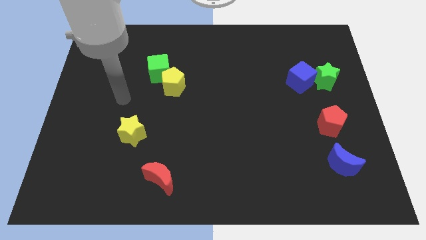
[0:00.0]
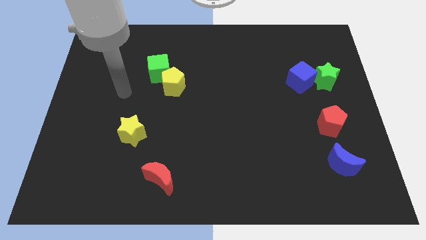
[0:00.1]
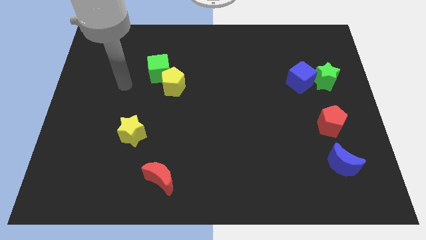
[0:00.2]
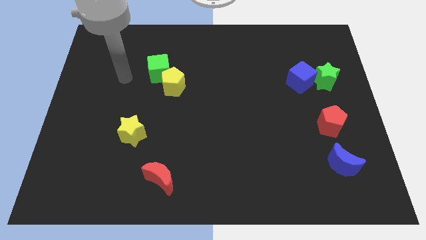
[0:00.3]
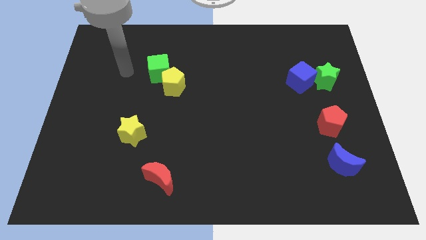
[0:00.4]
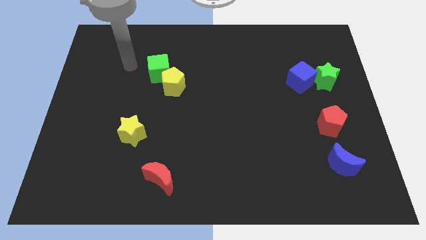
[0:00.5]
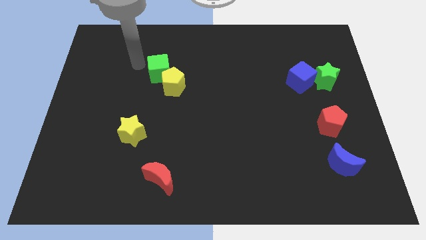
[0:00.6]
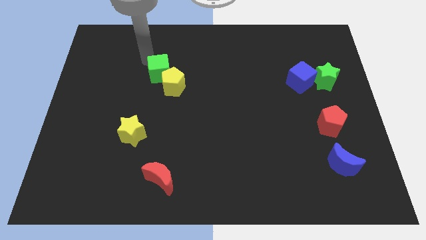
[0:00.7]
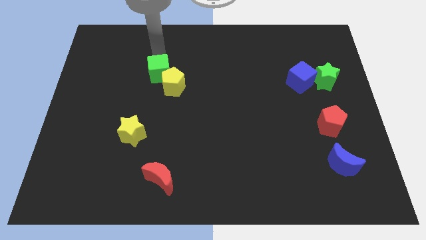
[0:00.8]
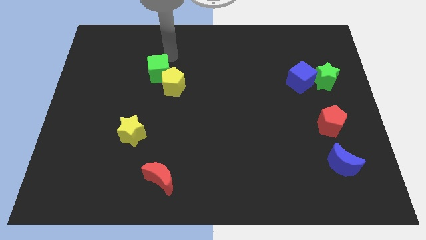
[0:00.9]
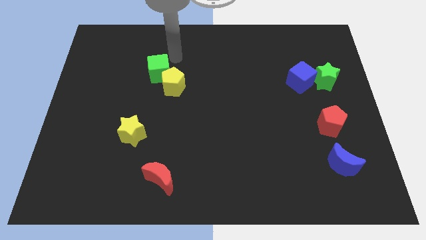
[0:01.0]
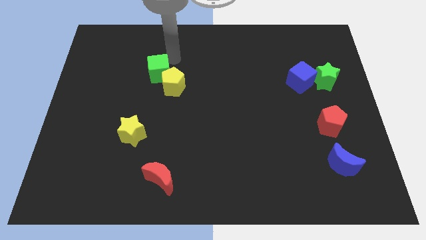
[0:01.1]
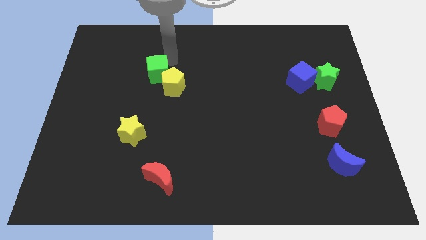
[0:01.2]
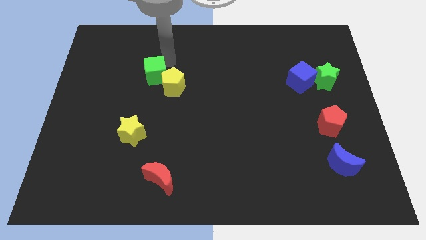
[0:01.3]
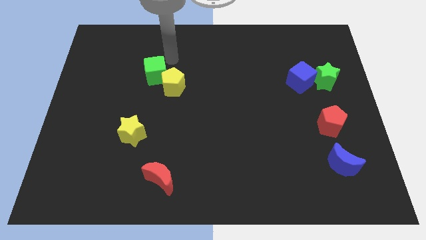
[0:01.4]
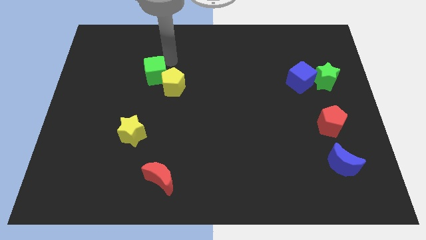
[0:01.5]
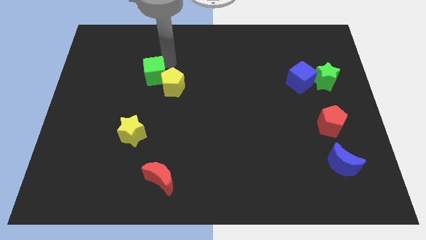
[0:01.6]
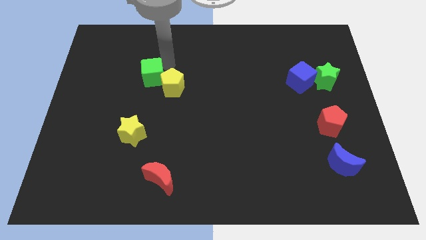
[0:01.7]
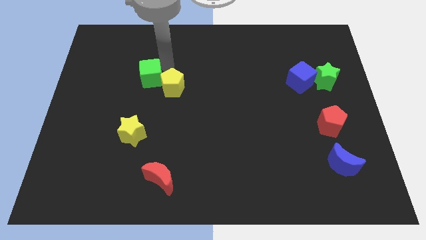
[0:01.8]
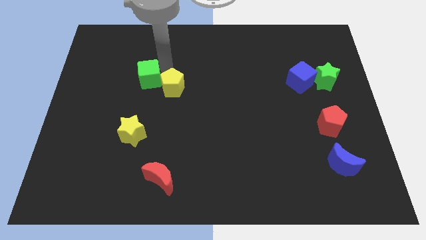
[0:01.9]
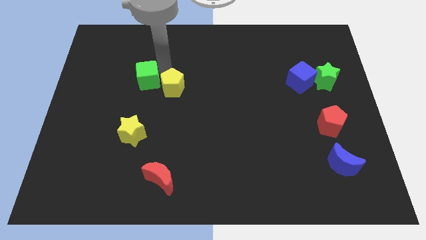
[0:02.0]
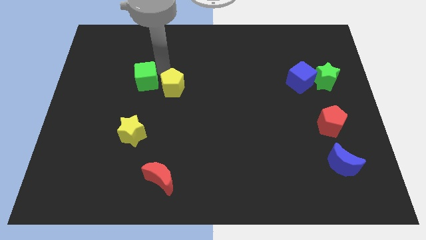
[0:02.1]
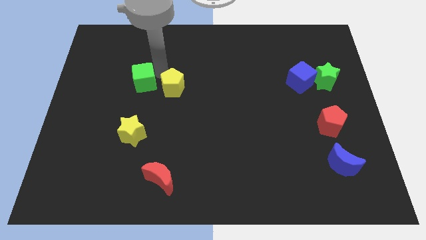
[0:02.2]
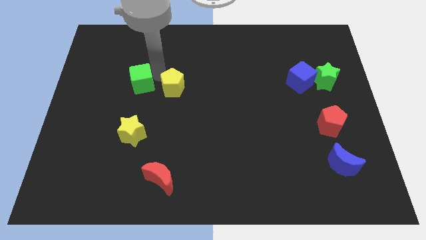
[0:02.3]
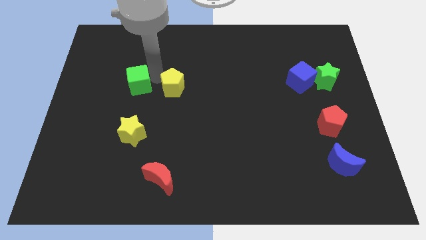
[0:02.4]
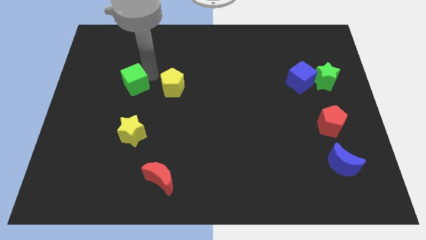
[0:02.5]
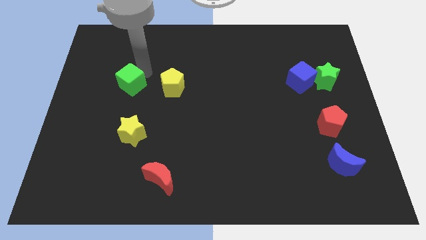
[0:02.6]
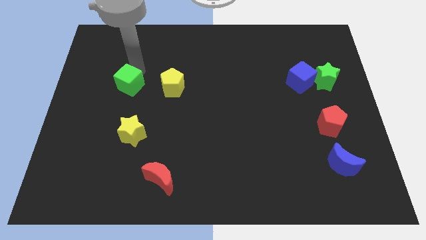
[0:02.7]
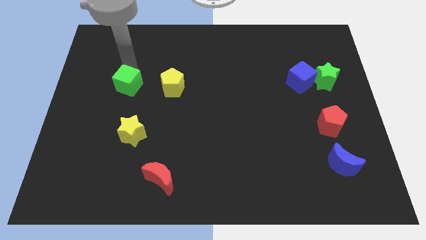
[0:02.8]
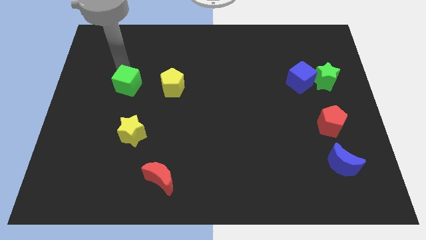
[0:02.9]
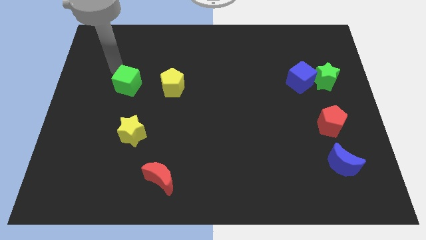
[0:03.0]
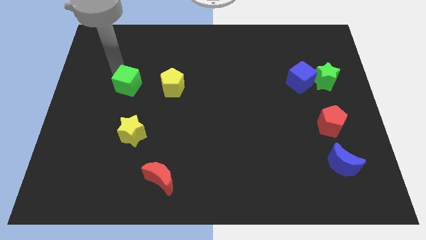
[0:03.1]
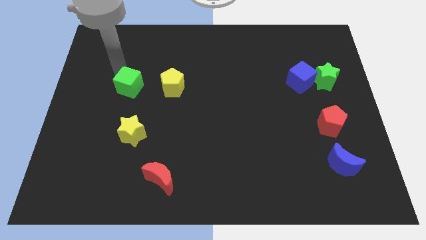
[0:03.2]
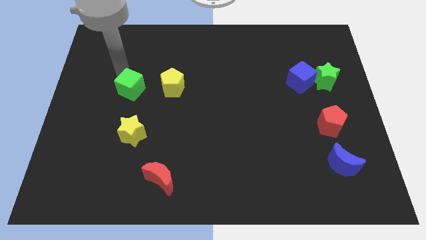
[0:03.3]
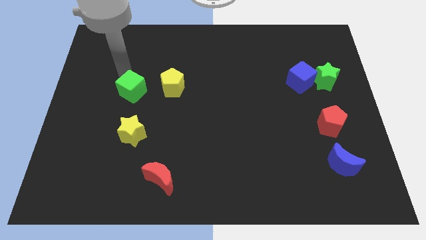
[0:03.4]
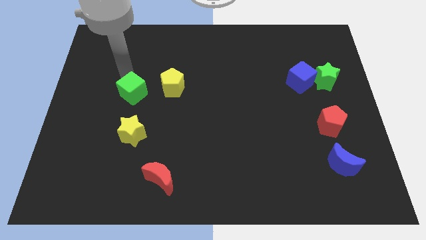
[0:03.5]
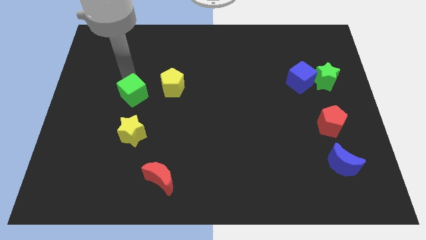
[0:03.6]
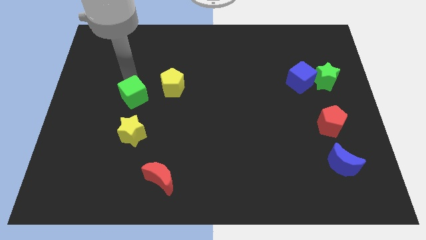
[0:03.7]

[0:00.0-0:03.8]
slightly slide the green cube downwards

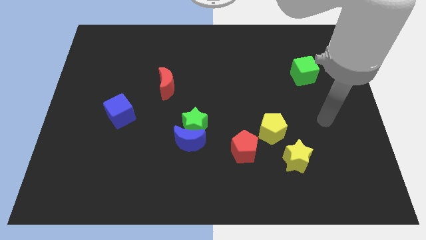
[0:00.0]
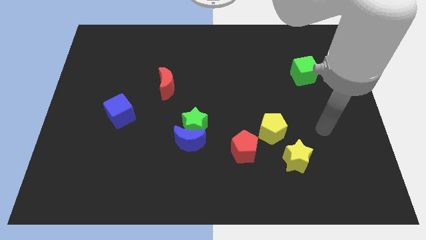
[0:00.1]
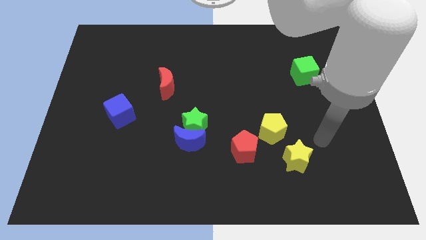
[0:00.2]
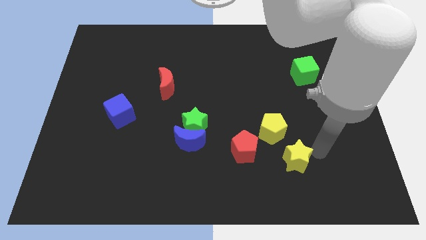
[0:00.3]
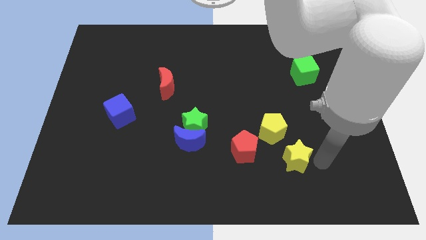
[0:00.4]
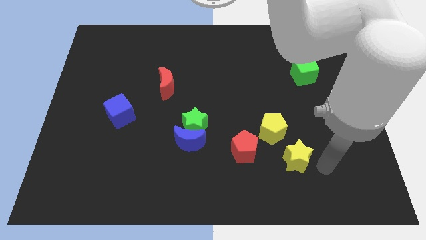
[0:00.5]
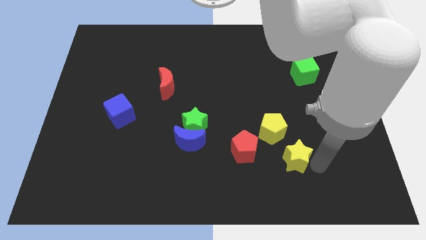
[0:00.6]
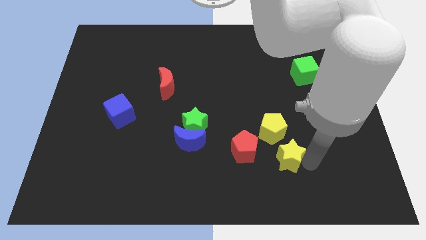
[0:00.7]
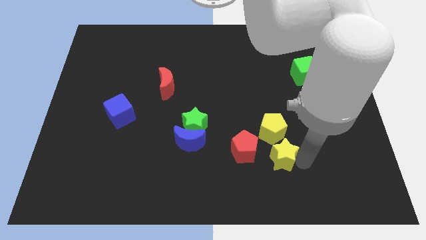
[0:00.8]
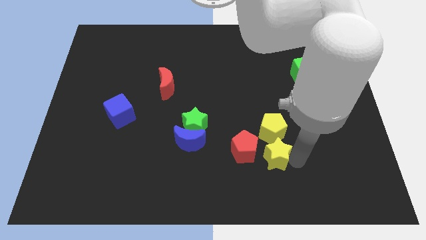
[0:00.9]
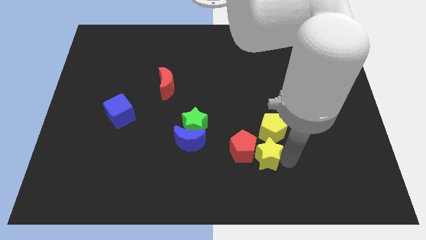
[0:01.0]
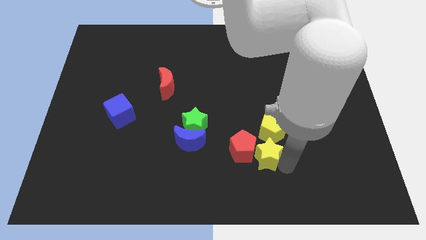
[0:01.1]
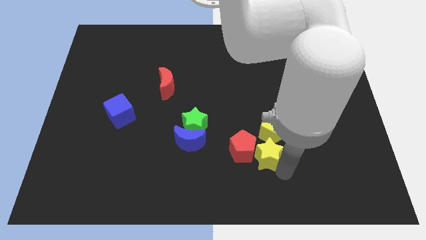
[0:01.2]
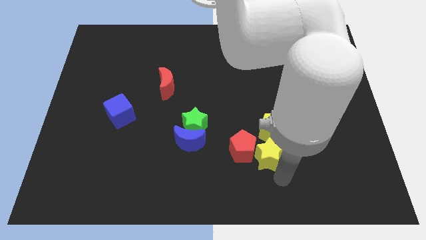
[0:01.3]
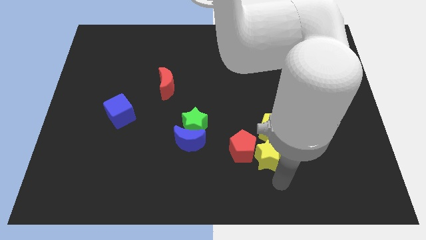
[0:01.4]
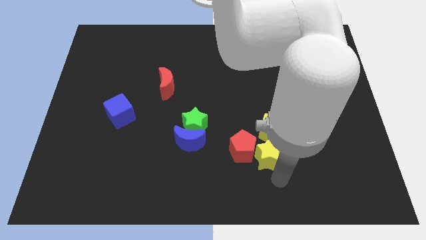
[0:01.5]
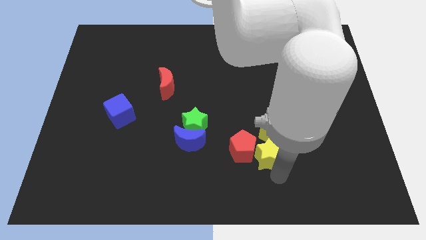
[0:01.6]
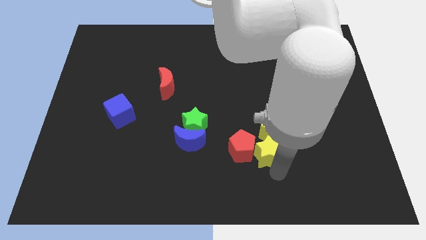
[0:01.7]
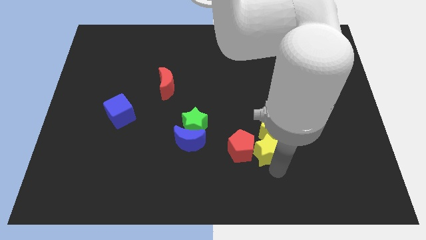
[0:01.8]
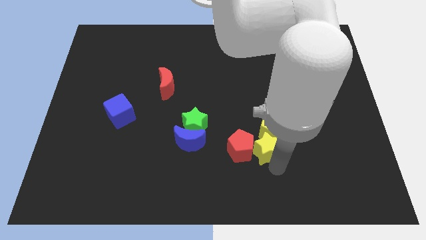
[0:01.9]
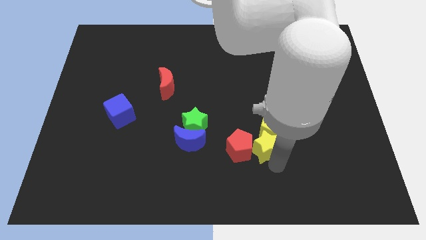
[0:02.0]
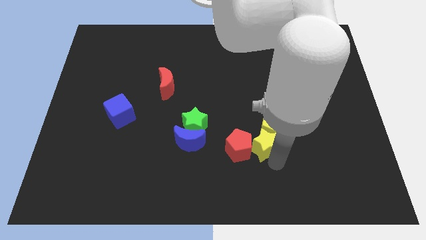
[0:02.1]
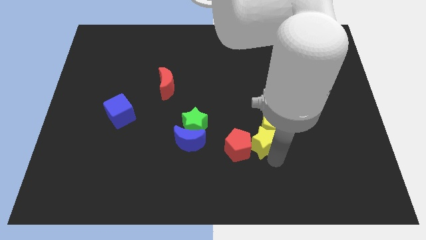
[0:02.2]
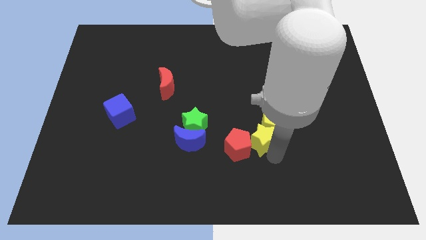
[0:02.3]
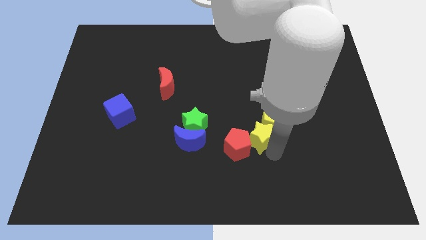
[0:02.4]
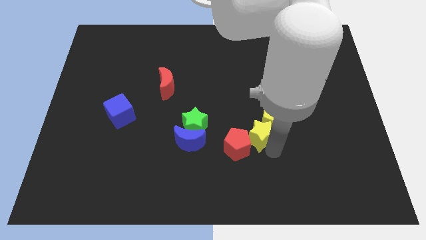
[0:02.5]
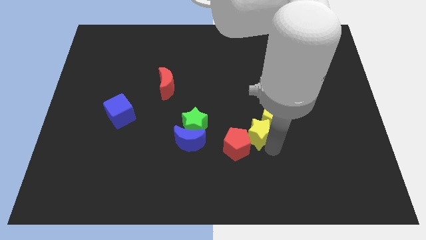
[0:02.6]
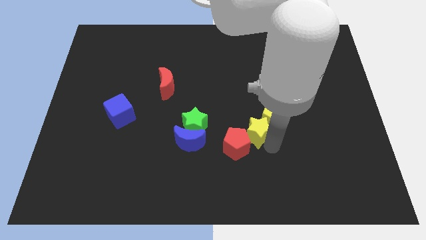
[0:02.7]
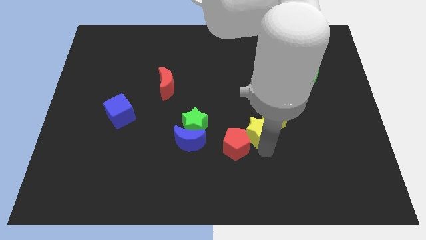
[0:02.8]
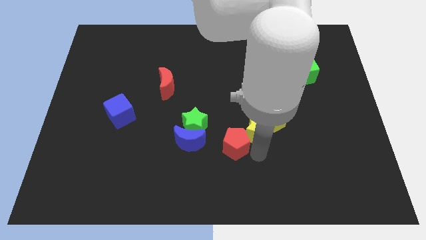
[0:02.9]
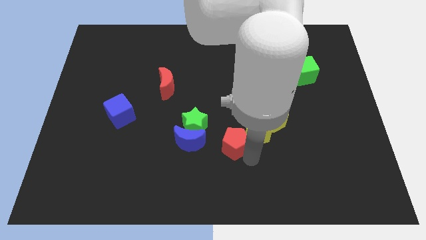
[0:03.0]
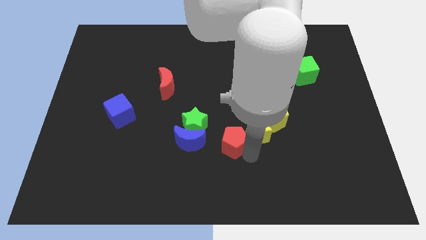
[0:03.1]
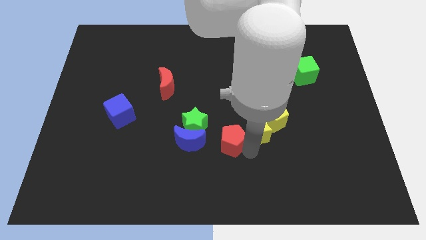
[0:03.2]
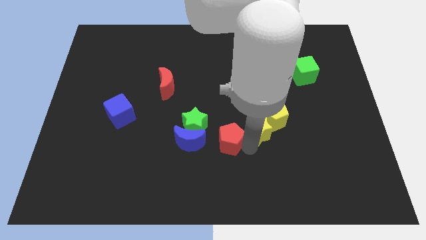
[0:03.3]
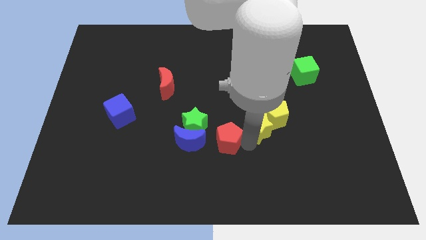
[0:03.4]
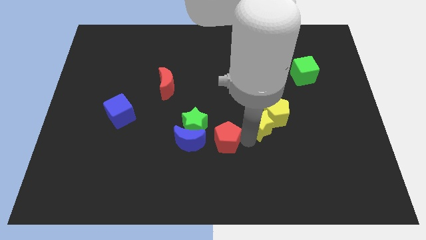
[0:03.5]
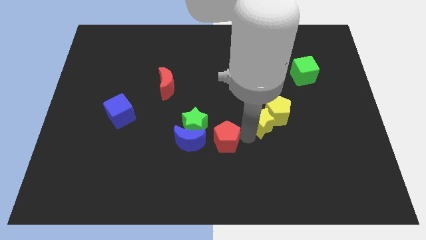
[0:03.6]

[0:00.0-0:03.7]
slightly slide the yellow star upwards

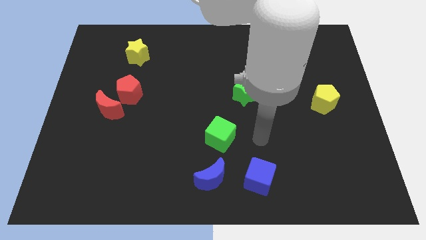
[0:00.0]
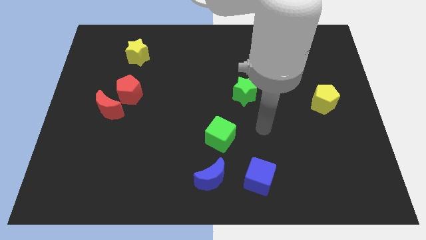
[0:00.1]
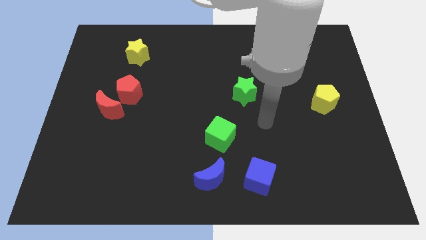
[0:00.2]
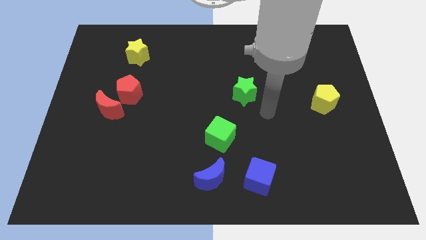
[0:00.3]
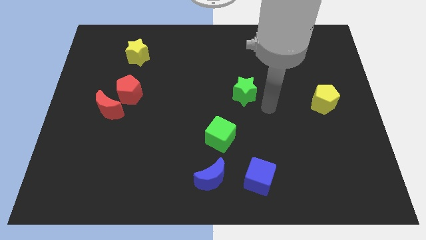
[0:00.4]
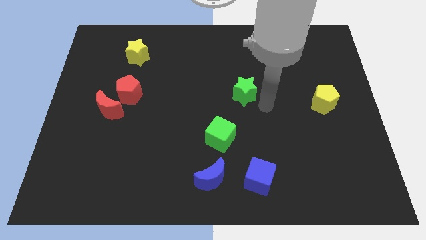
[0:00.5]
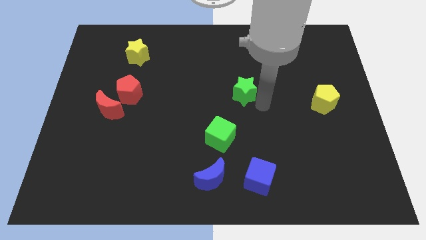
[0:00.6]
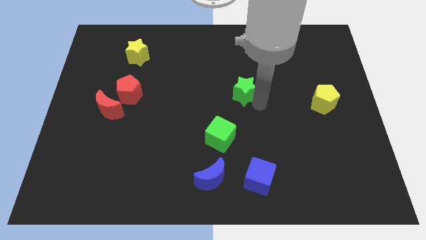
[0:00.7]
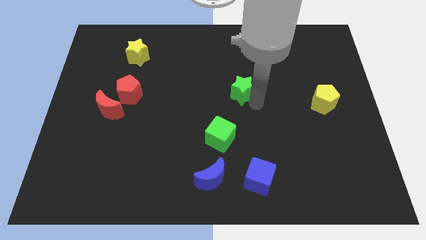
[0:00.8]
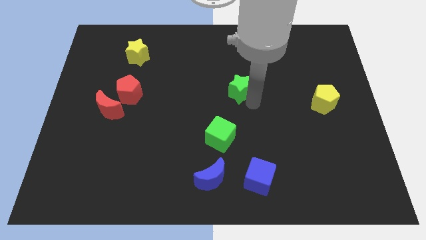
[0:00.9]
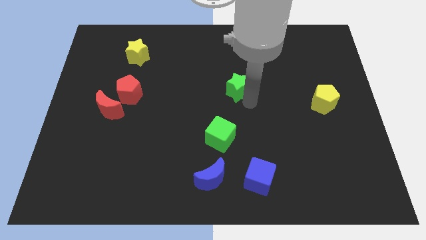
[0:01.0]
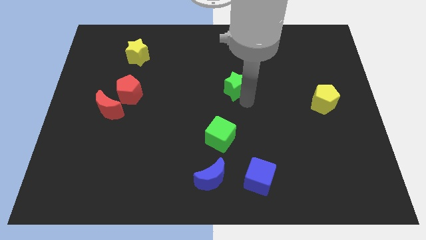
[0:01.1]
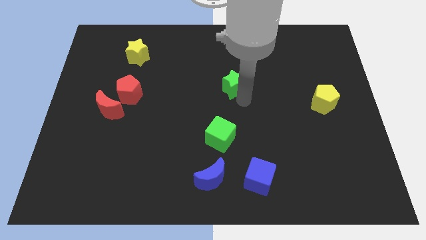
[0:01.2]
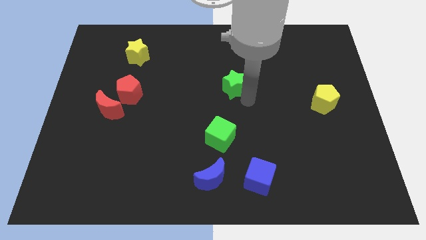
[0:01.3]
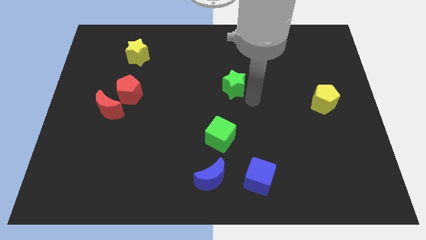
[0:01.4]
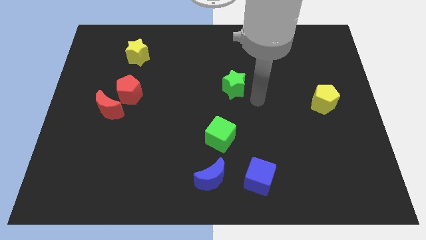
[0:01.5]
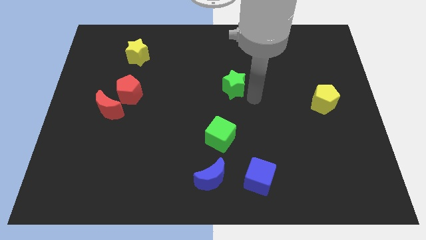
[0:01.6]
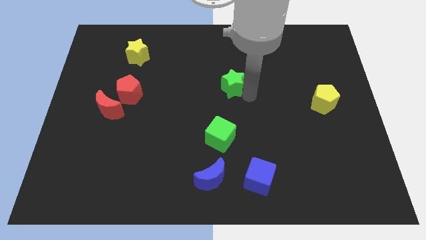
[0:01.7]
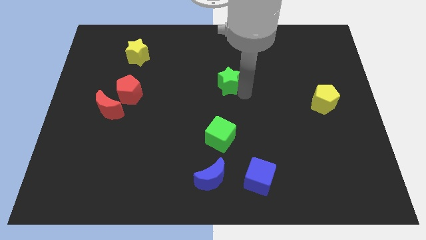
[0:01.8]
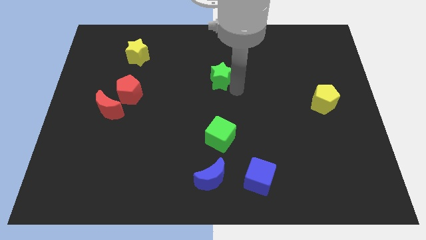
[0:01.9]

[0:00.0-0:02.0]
slide the green star diagonally upwards and left a little
